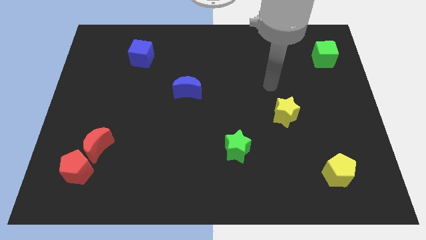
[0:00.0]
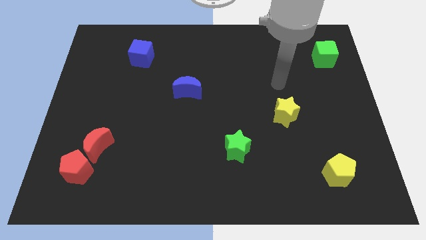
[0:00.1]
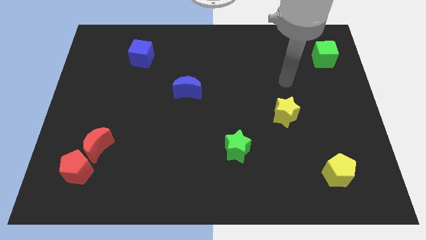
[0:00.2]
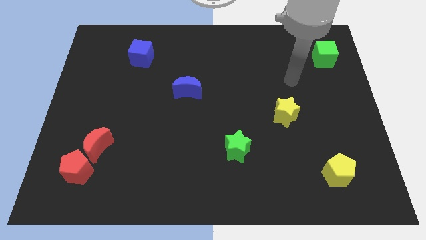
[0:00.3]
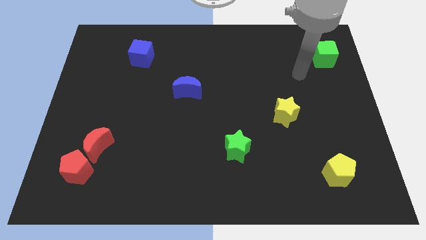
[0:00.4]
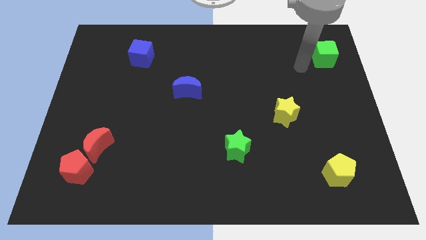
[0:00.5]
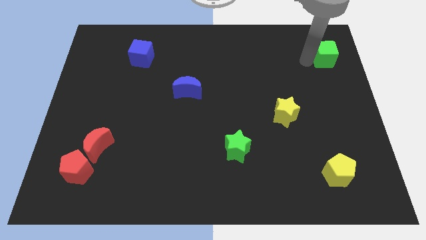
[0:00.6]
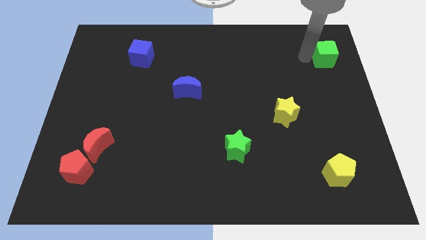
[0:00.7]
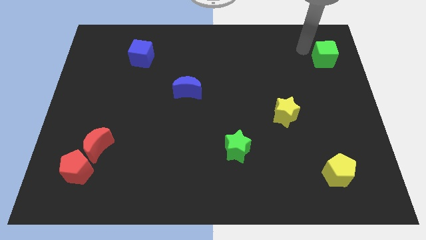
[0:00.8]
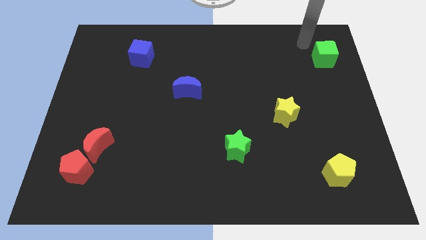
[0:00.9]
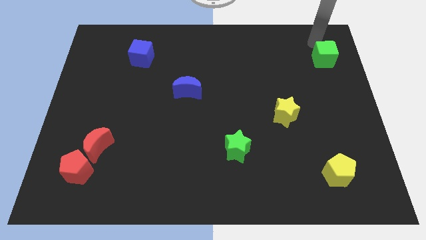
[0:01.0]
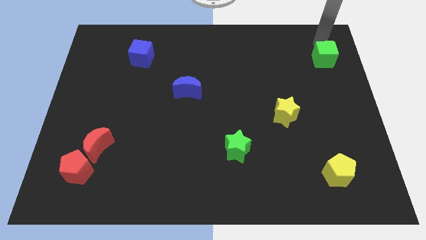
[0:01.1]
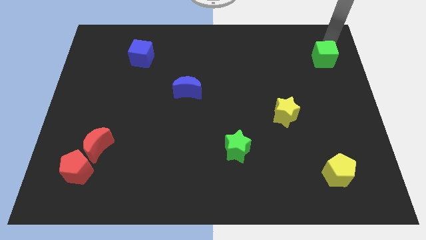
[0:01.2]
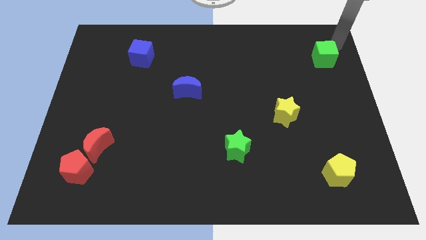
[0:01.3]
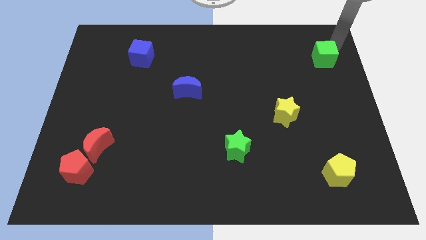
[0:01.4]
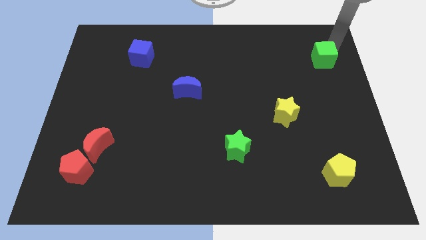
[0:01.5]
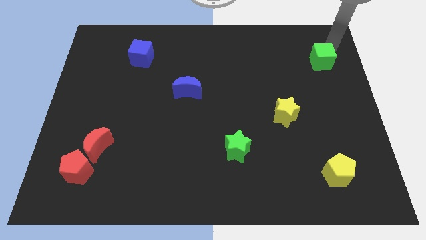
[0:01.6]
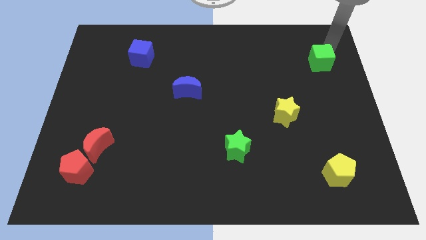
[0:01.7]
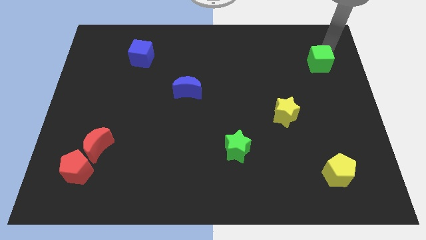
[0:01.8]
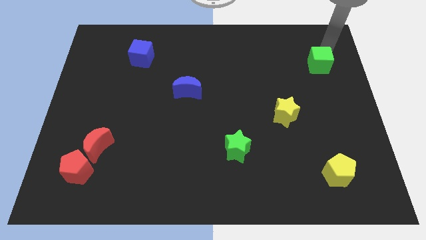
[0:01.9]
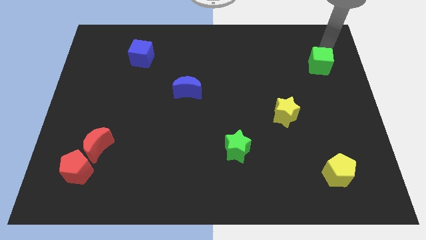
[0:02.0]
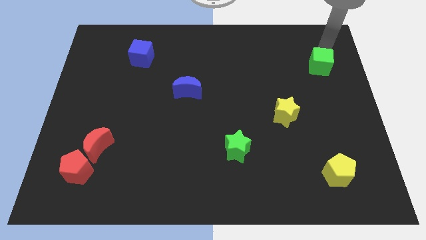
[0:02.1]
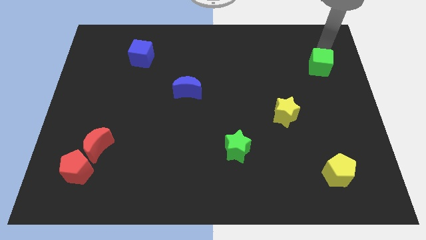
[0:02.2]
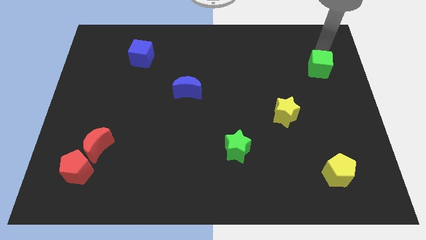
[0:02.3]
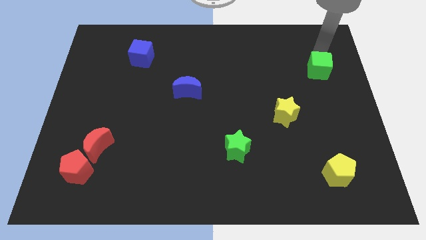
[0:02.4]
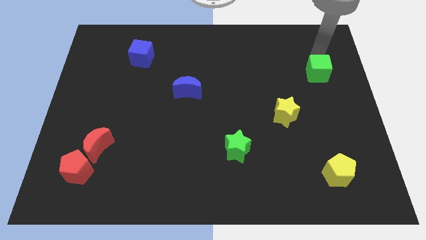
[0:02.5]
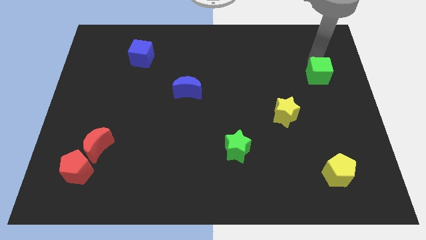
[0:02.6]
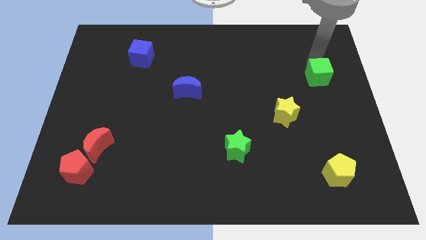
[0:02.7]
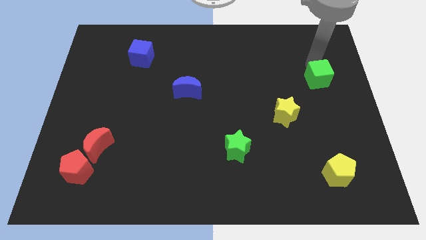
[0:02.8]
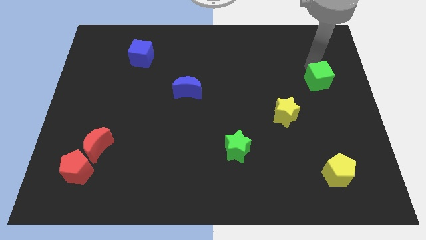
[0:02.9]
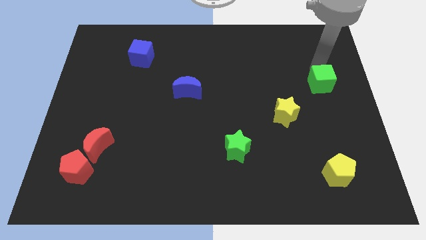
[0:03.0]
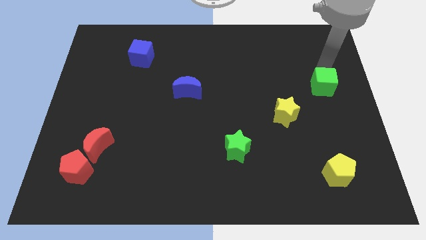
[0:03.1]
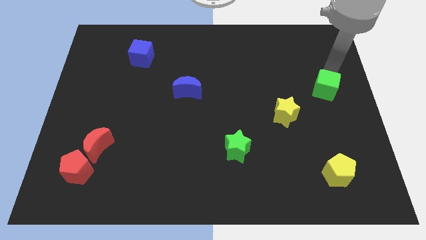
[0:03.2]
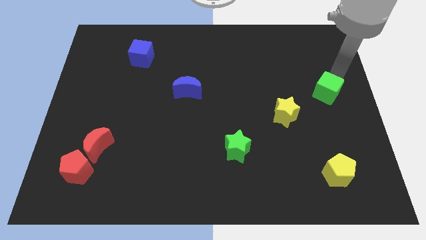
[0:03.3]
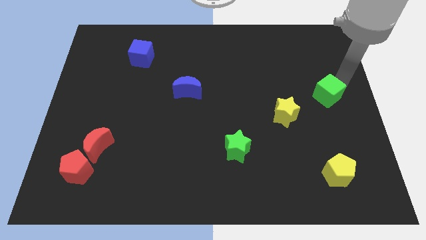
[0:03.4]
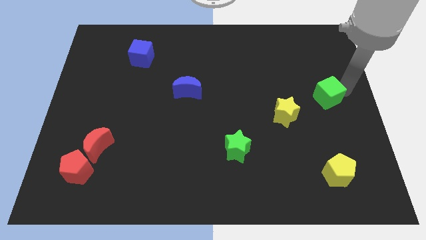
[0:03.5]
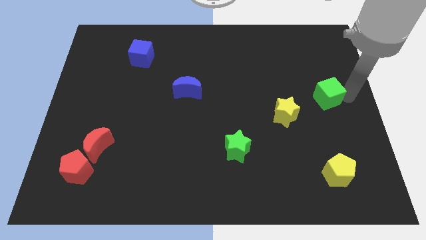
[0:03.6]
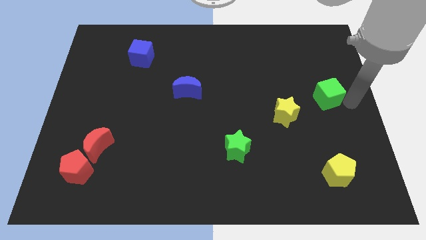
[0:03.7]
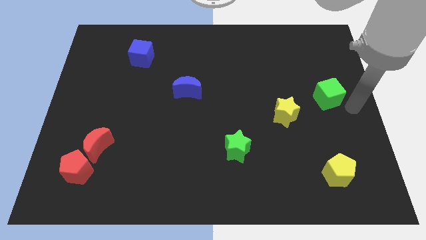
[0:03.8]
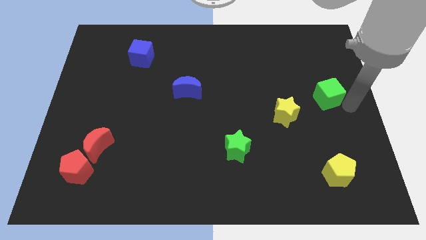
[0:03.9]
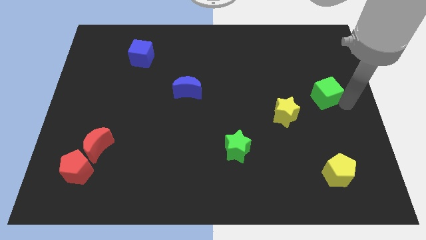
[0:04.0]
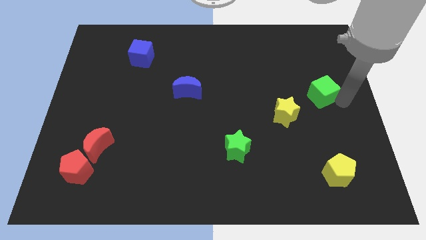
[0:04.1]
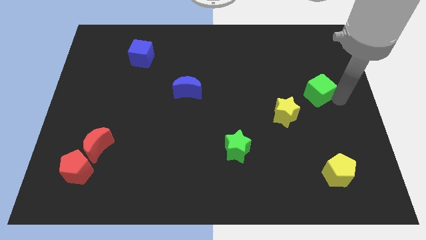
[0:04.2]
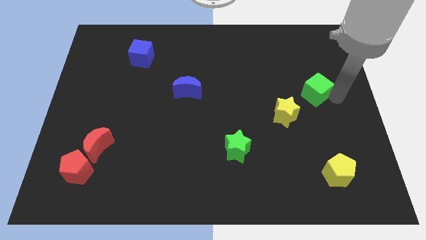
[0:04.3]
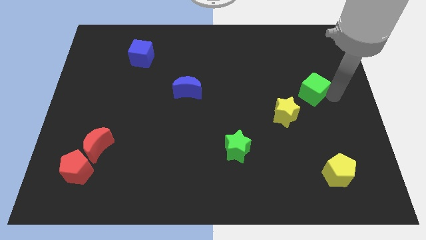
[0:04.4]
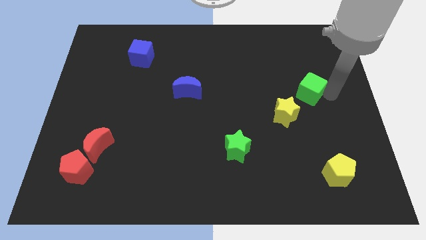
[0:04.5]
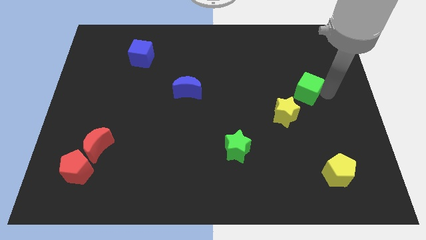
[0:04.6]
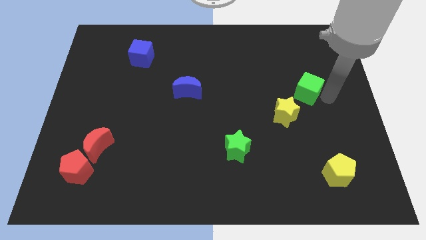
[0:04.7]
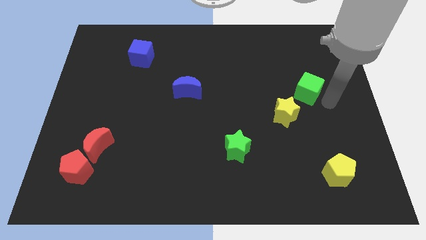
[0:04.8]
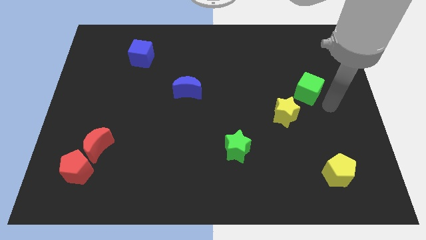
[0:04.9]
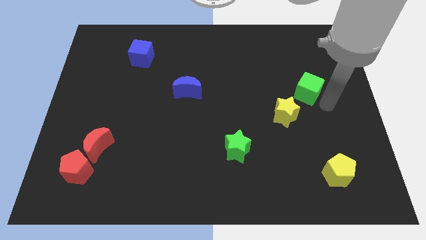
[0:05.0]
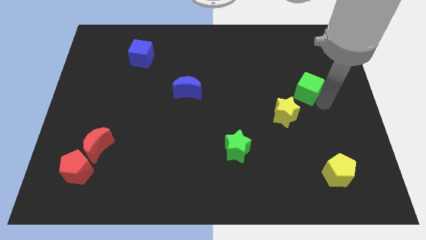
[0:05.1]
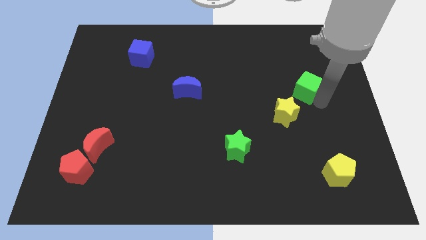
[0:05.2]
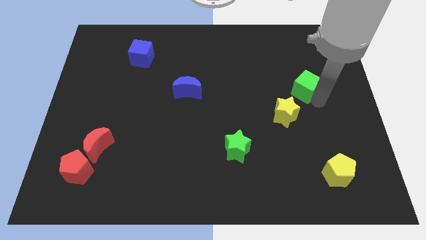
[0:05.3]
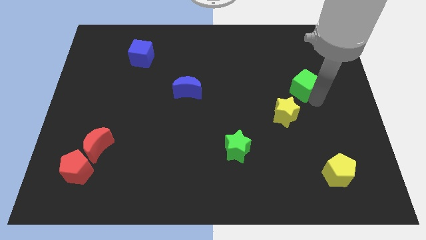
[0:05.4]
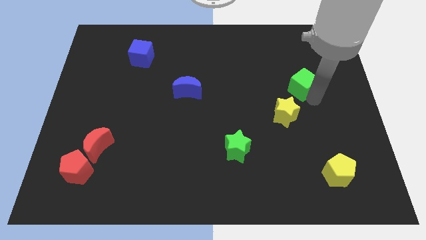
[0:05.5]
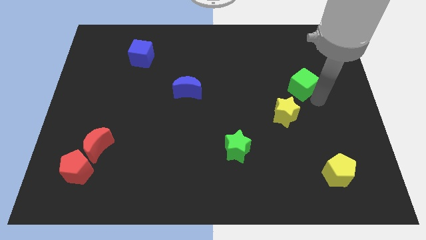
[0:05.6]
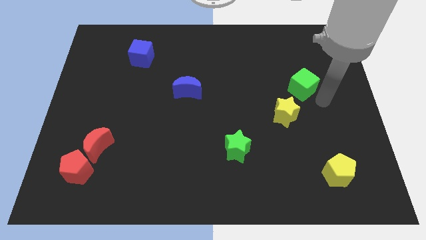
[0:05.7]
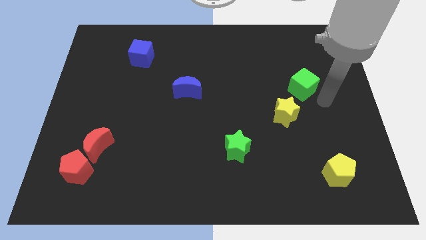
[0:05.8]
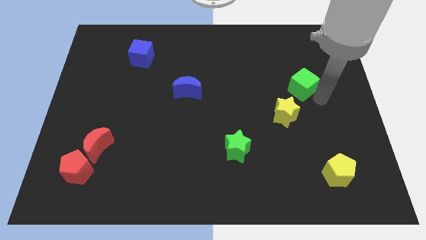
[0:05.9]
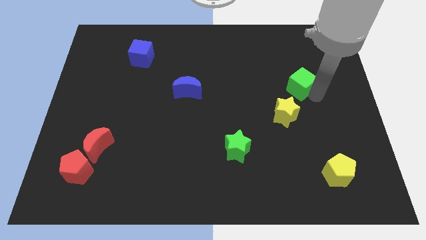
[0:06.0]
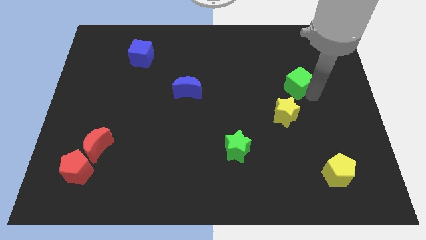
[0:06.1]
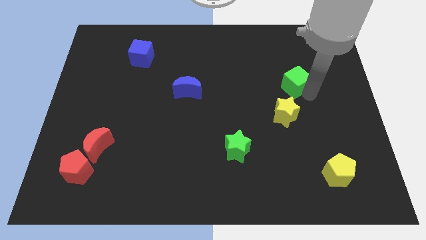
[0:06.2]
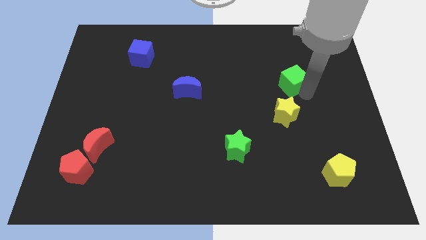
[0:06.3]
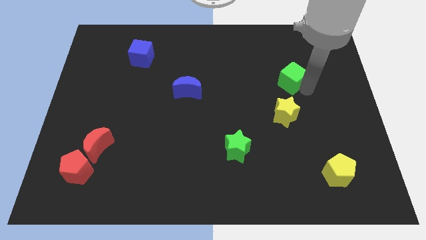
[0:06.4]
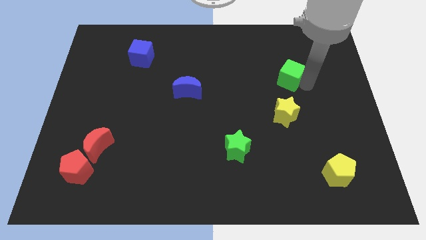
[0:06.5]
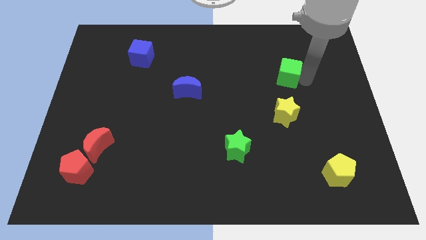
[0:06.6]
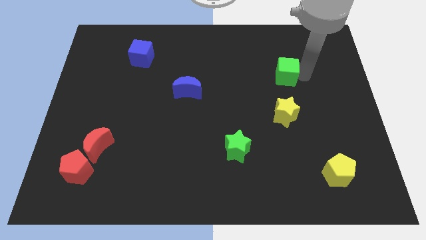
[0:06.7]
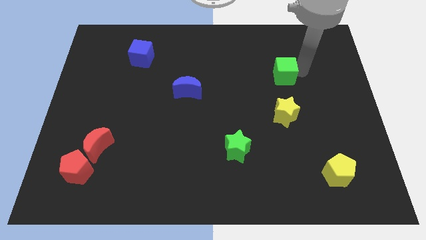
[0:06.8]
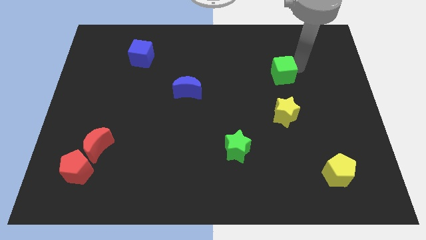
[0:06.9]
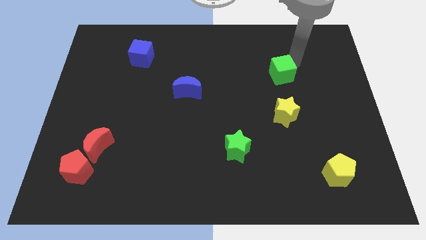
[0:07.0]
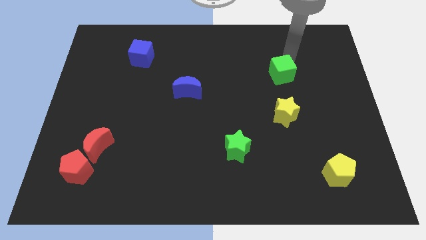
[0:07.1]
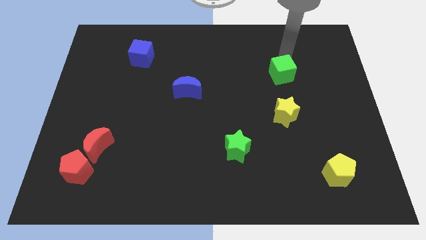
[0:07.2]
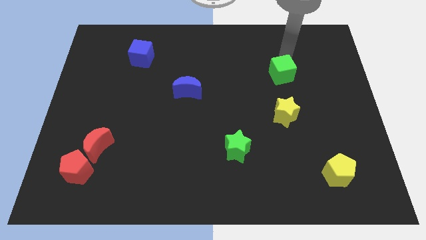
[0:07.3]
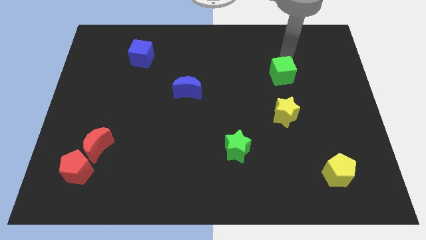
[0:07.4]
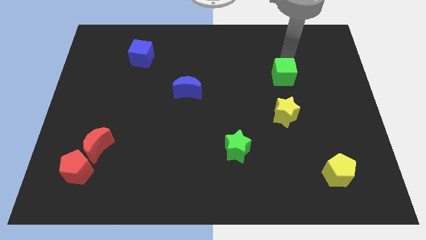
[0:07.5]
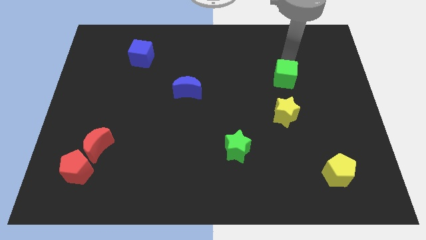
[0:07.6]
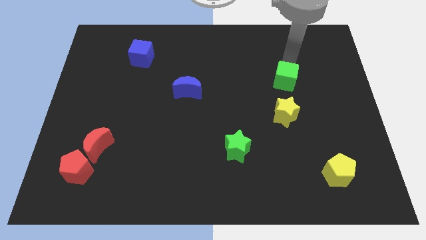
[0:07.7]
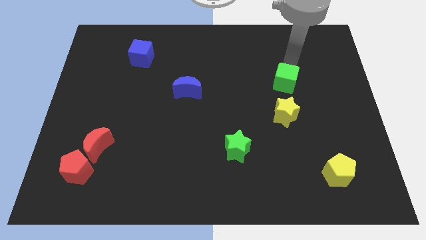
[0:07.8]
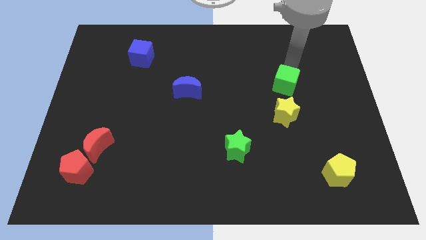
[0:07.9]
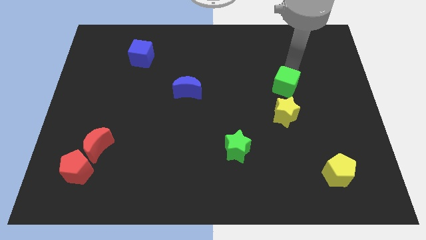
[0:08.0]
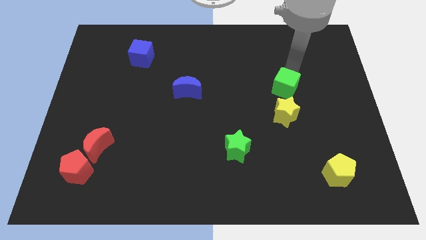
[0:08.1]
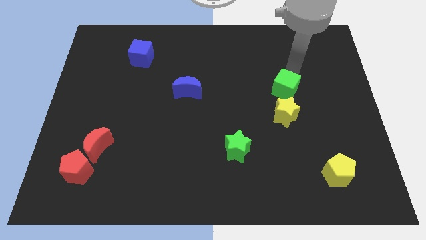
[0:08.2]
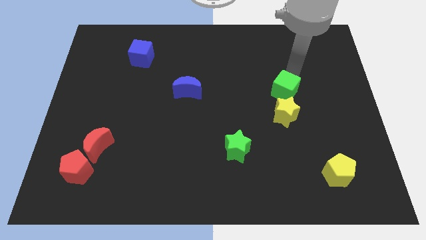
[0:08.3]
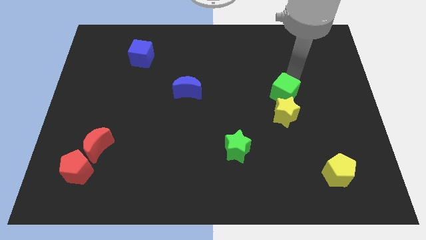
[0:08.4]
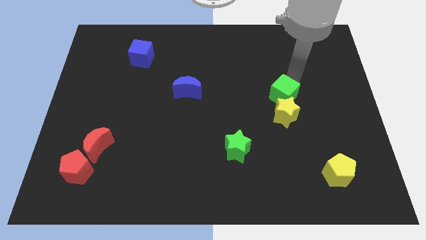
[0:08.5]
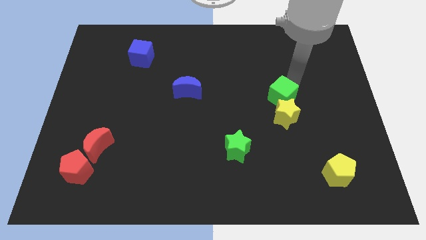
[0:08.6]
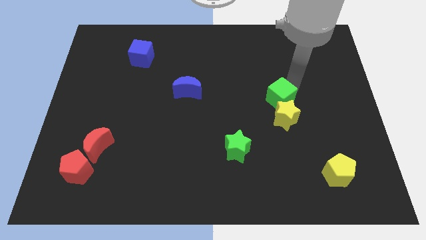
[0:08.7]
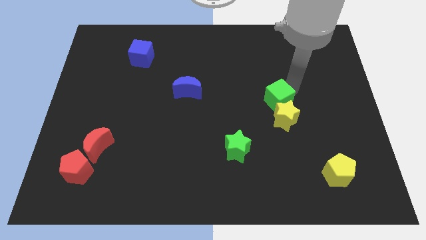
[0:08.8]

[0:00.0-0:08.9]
push the green cube downwards and to the left
